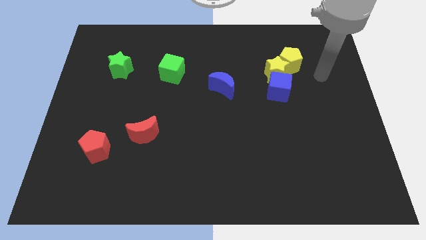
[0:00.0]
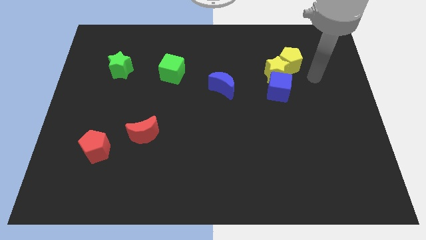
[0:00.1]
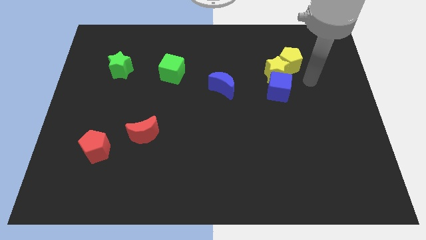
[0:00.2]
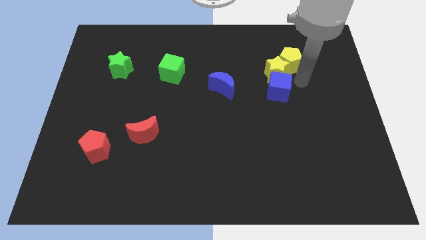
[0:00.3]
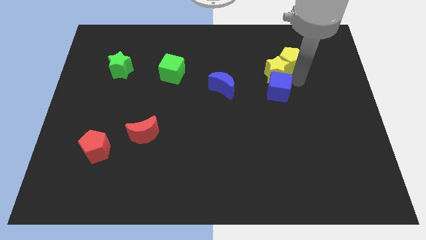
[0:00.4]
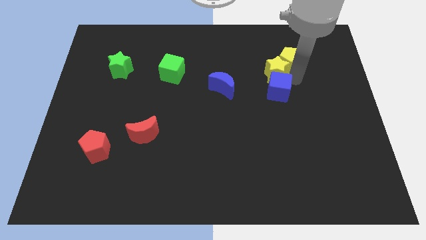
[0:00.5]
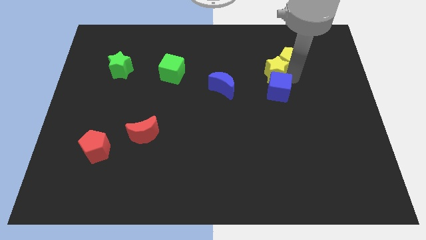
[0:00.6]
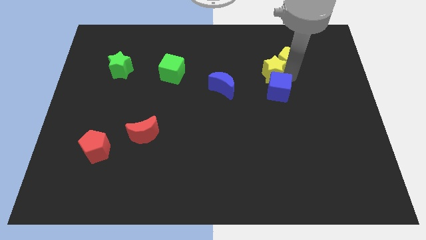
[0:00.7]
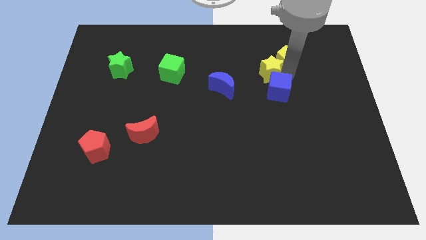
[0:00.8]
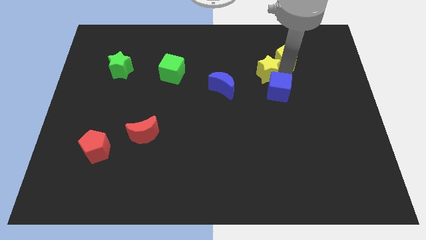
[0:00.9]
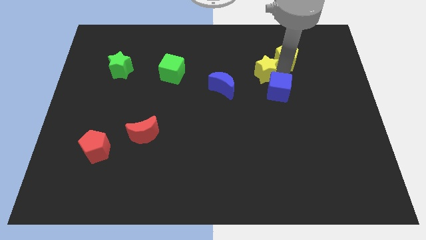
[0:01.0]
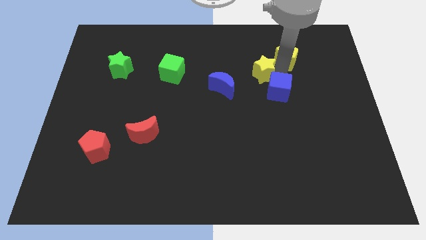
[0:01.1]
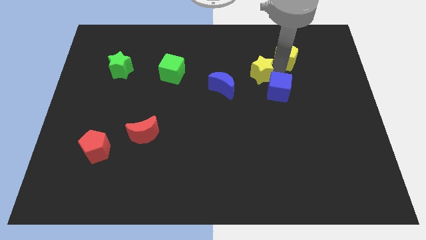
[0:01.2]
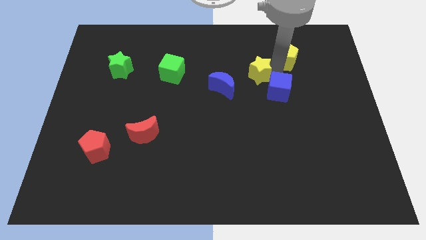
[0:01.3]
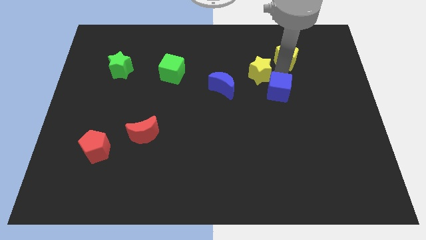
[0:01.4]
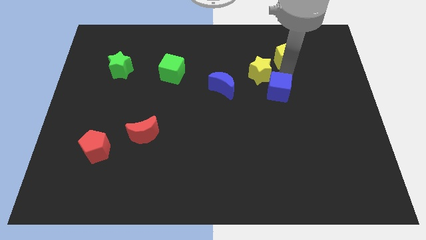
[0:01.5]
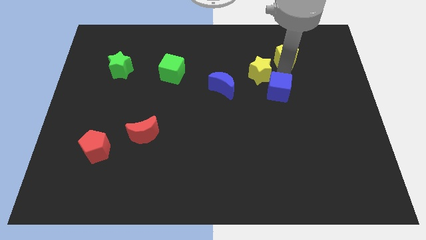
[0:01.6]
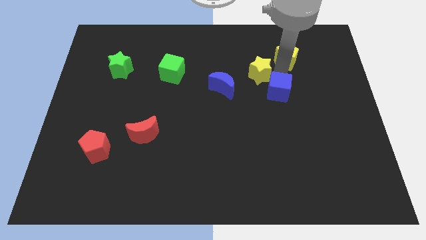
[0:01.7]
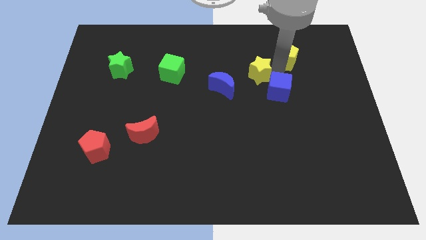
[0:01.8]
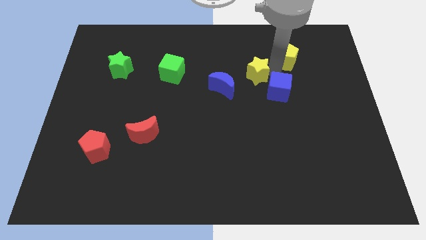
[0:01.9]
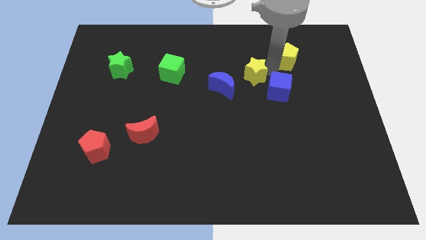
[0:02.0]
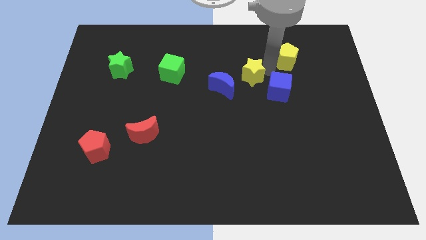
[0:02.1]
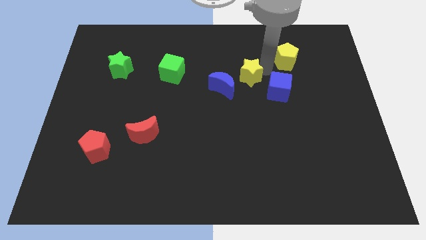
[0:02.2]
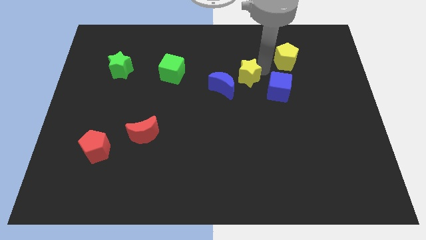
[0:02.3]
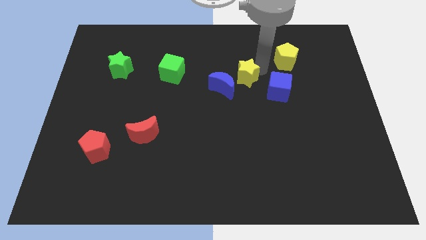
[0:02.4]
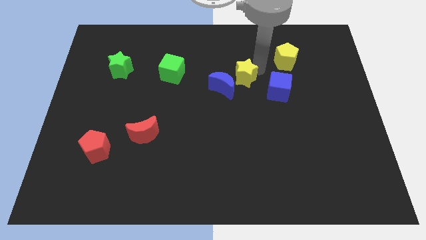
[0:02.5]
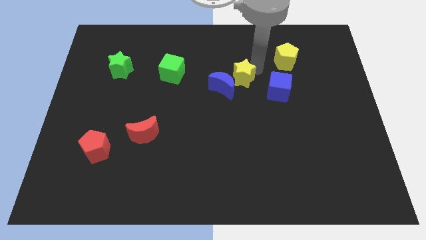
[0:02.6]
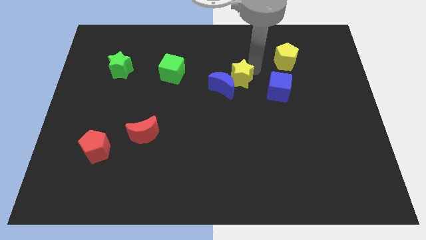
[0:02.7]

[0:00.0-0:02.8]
separate the yellow star from the blue cube and yellow pentagon

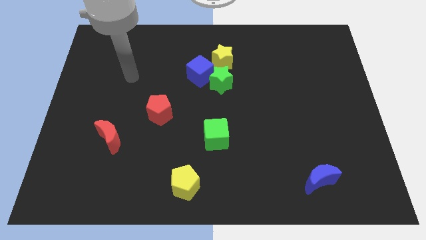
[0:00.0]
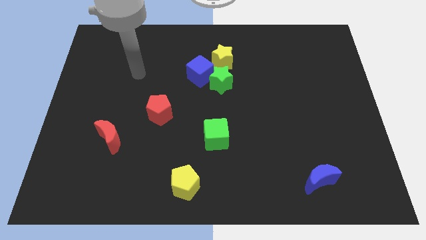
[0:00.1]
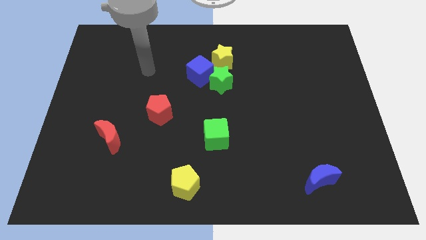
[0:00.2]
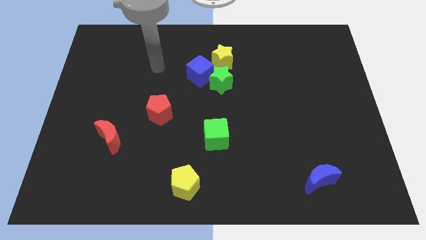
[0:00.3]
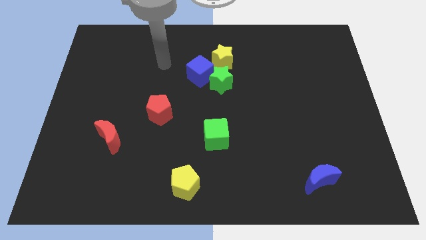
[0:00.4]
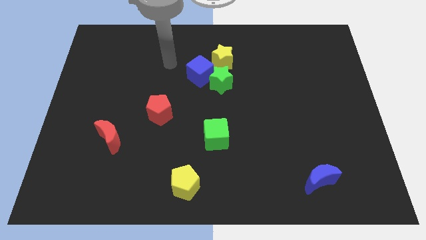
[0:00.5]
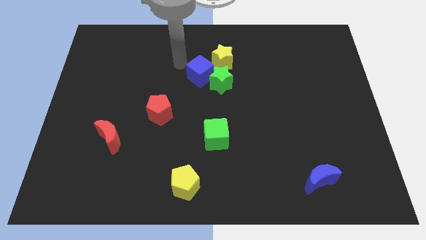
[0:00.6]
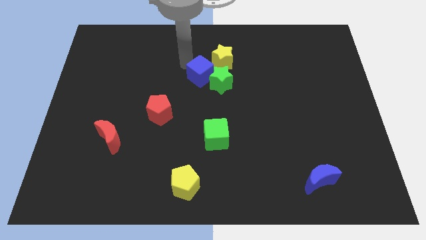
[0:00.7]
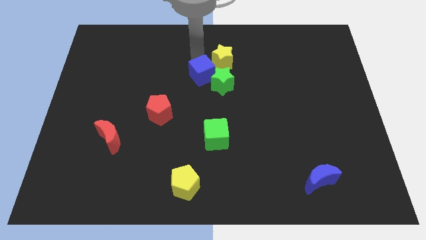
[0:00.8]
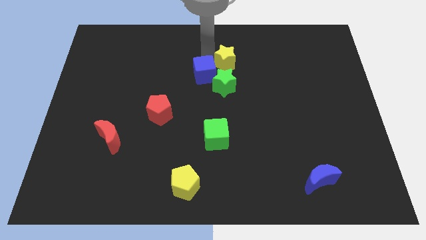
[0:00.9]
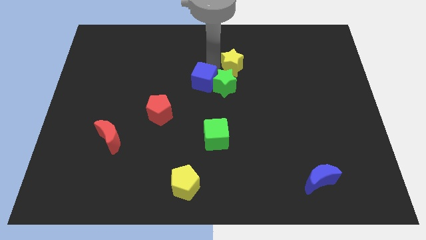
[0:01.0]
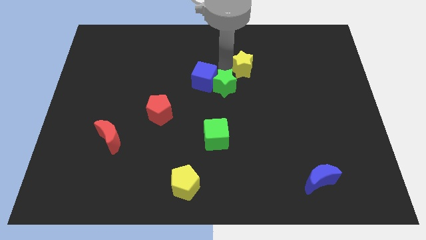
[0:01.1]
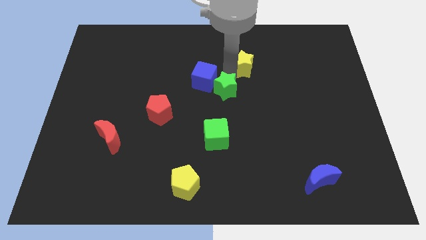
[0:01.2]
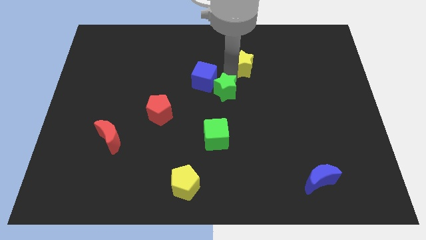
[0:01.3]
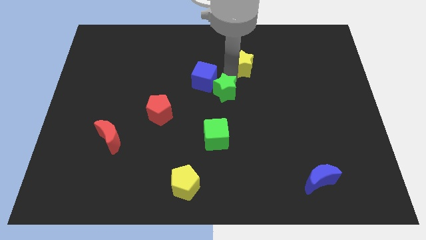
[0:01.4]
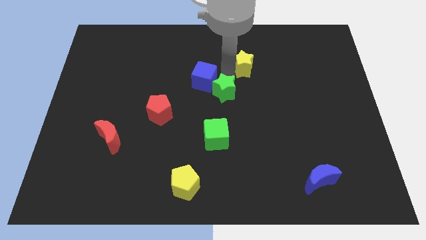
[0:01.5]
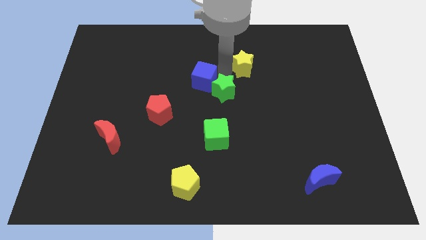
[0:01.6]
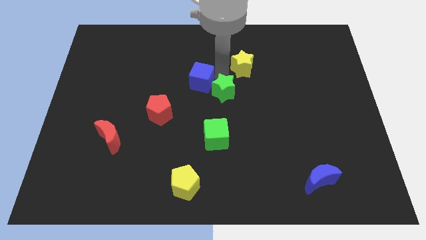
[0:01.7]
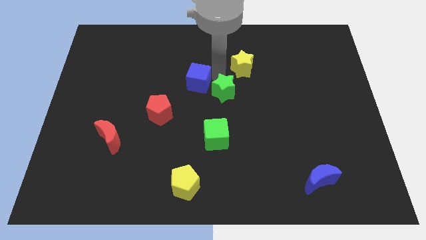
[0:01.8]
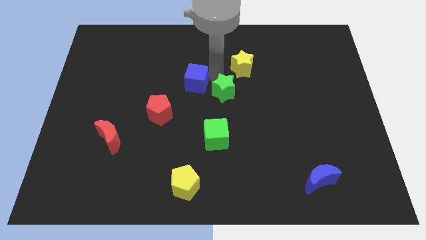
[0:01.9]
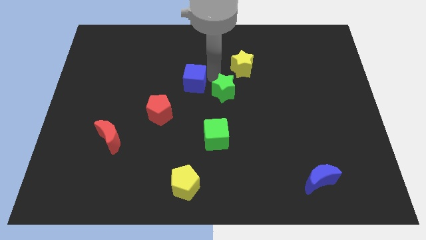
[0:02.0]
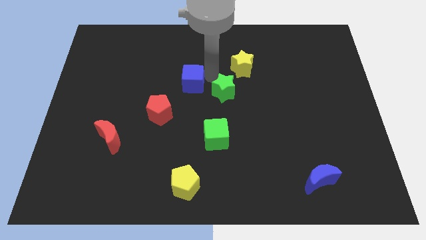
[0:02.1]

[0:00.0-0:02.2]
separate the blue cube from the green star and yellow star

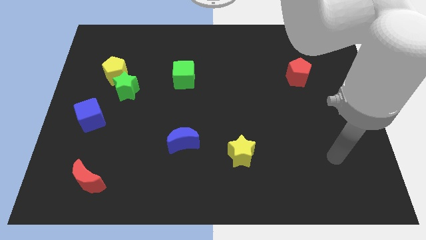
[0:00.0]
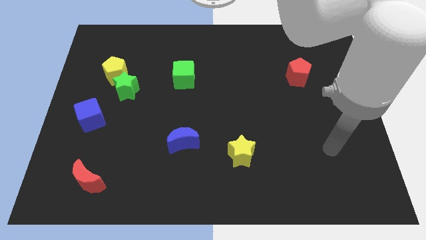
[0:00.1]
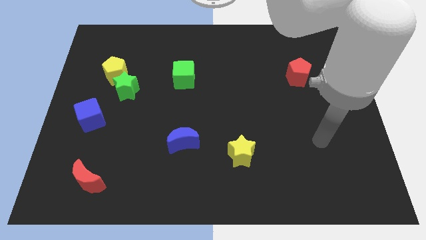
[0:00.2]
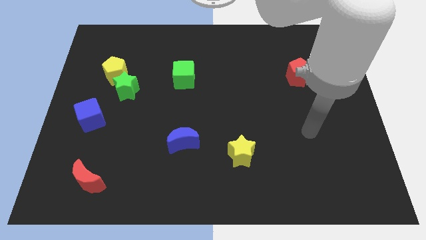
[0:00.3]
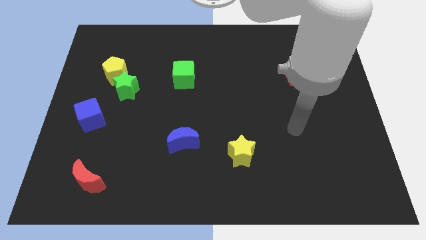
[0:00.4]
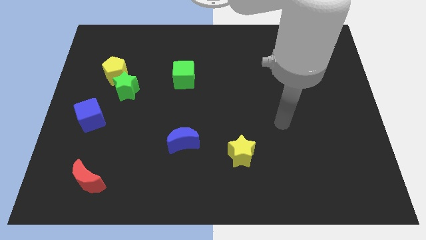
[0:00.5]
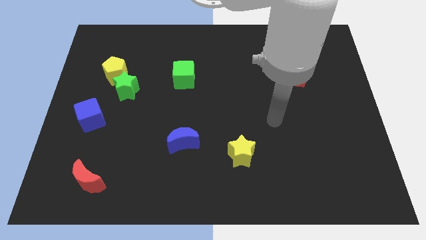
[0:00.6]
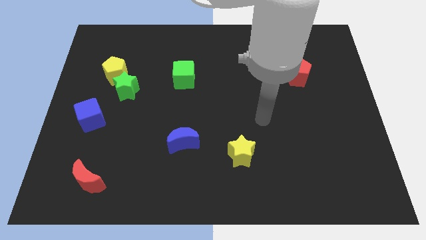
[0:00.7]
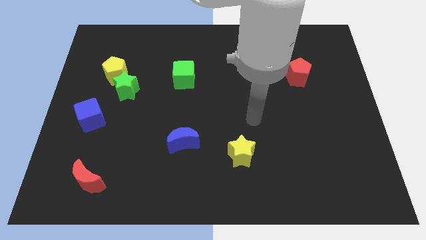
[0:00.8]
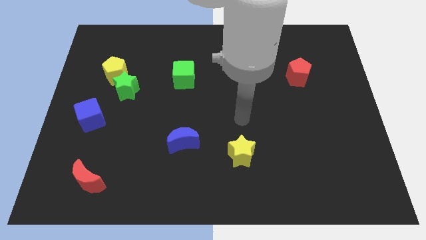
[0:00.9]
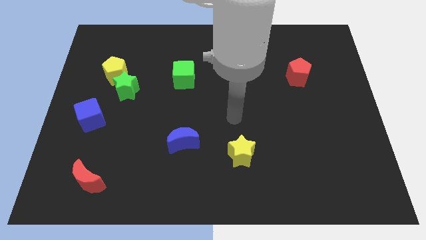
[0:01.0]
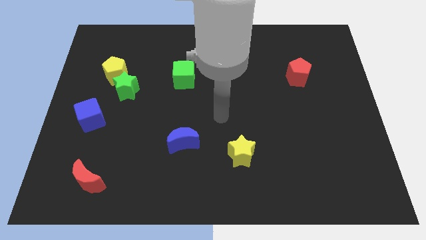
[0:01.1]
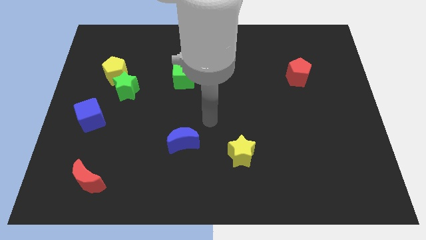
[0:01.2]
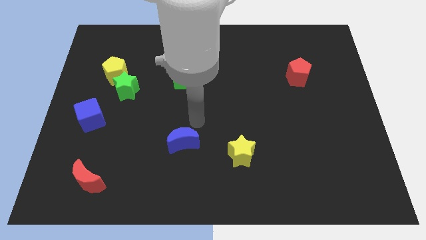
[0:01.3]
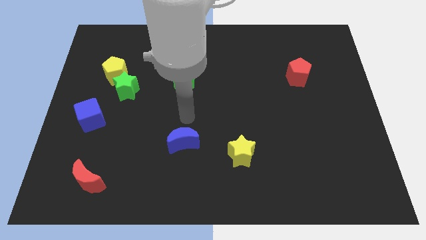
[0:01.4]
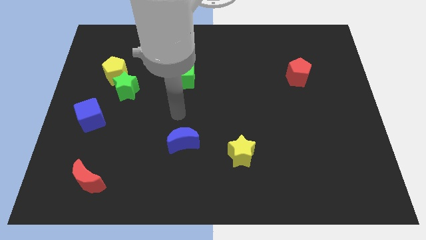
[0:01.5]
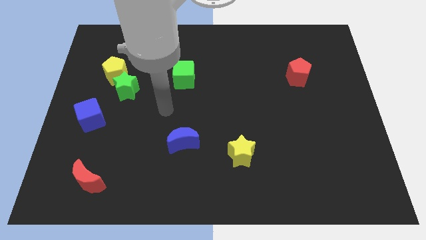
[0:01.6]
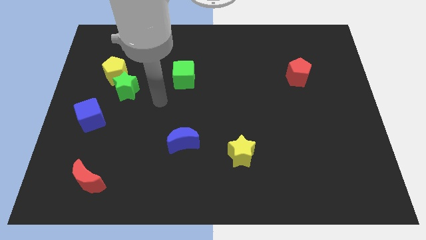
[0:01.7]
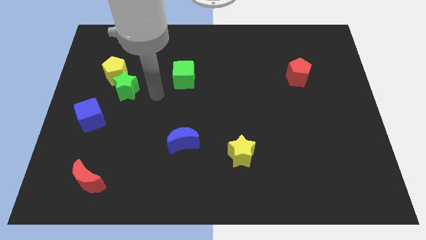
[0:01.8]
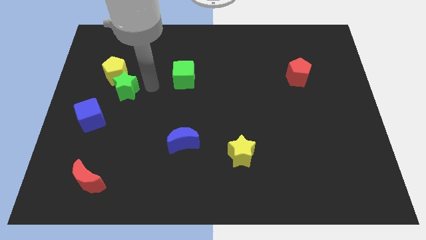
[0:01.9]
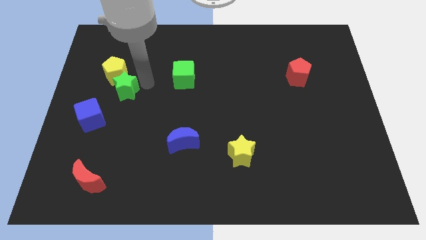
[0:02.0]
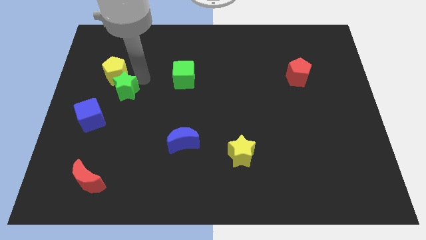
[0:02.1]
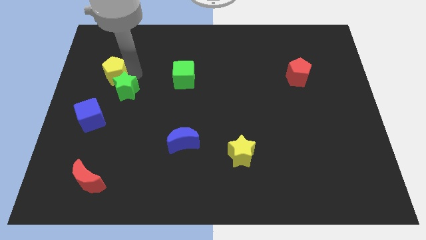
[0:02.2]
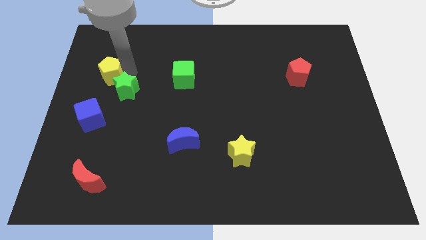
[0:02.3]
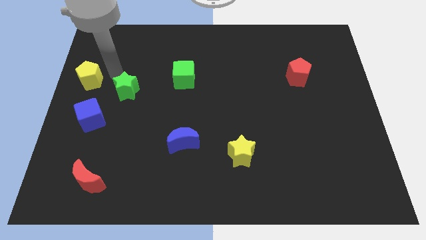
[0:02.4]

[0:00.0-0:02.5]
pull the green star apart from the yellow pentagon

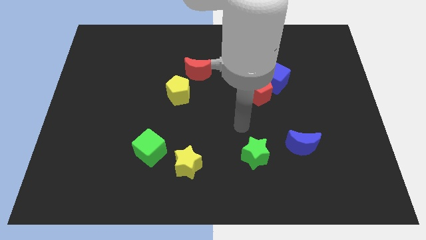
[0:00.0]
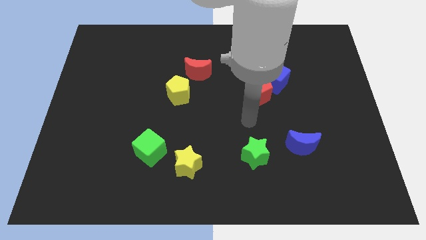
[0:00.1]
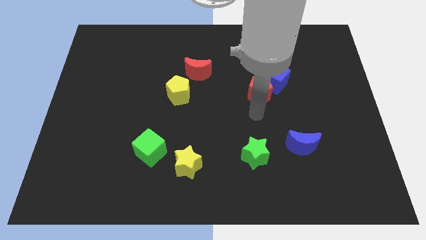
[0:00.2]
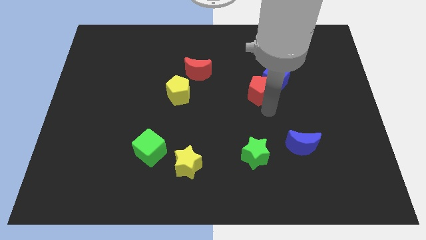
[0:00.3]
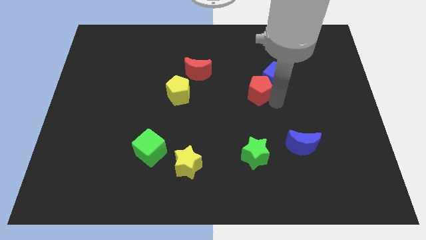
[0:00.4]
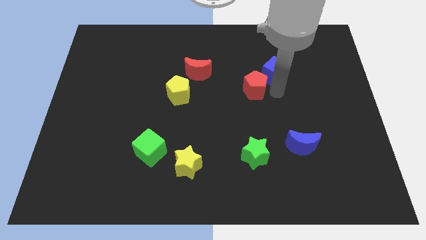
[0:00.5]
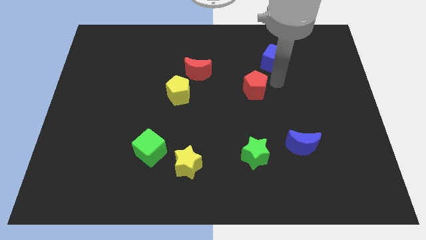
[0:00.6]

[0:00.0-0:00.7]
separate the red pentagon from the blue cube

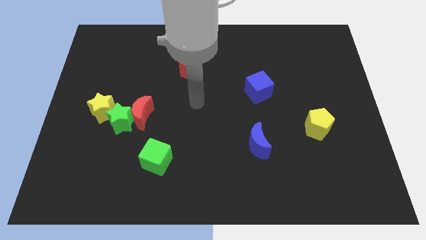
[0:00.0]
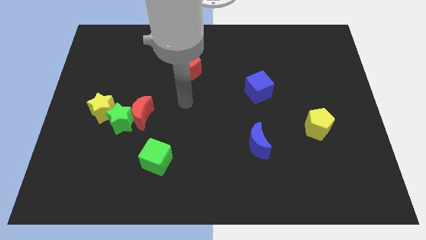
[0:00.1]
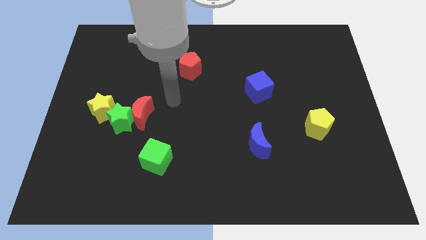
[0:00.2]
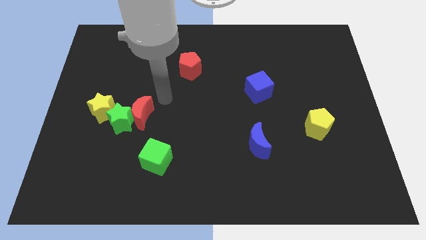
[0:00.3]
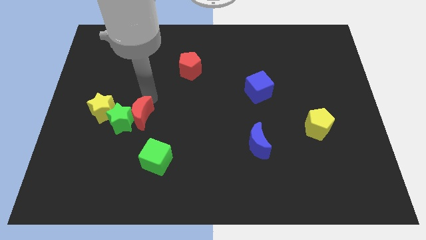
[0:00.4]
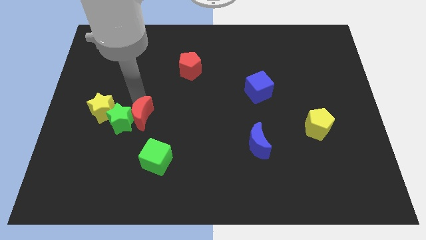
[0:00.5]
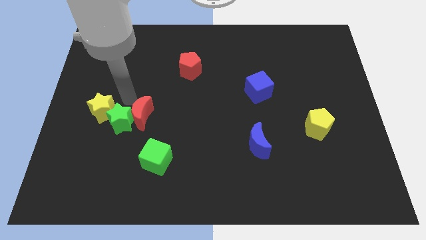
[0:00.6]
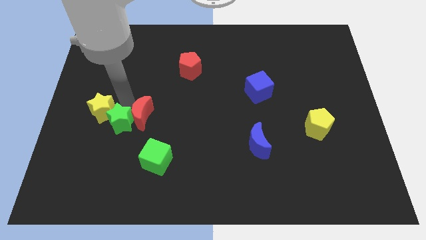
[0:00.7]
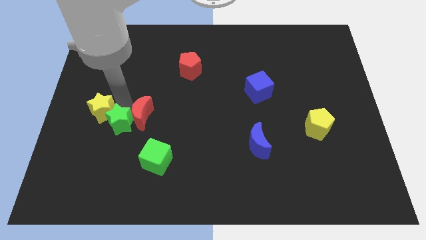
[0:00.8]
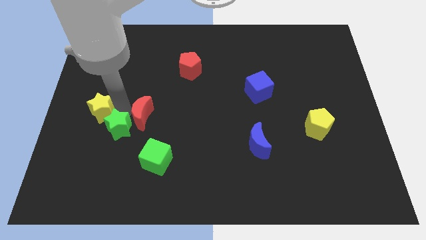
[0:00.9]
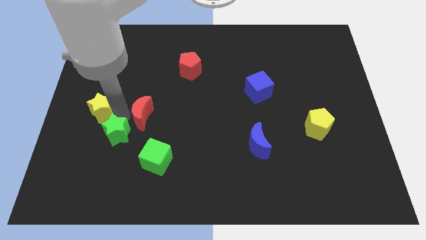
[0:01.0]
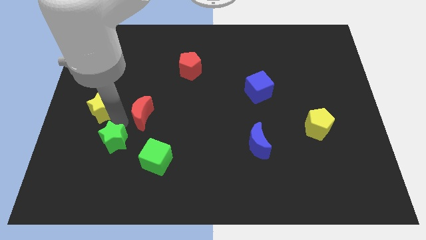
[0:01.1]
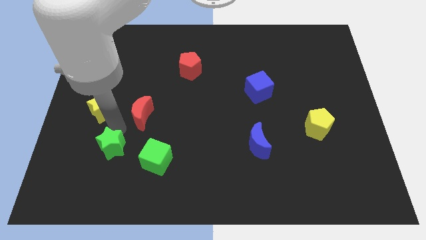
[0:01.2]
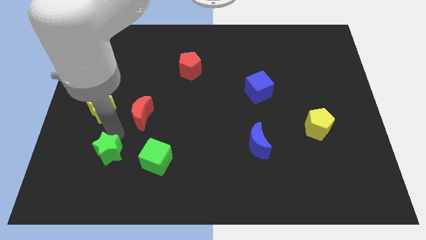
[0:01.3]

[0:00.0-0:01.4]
separate the green star from the red moon and yellow star
